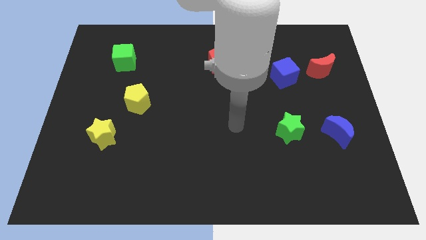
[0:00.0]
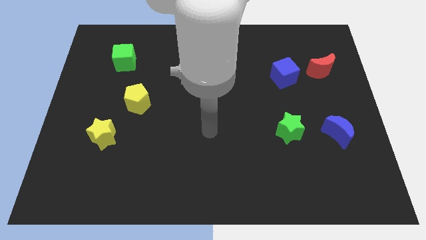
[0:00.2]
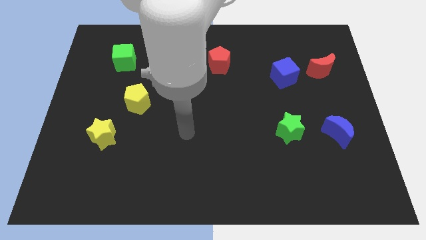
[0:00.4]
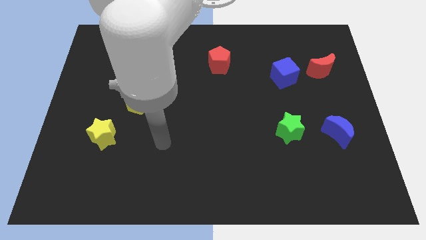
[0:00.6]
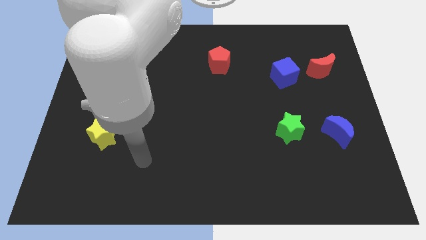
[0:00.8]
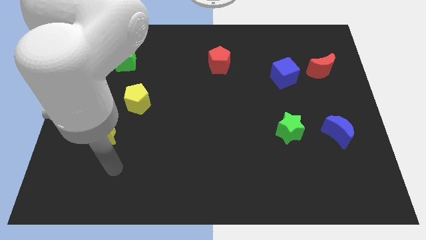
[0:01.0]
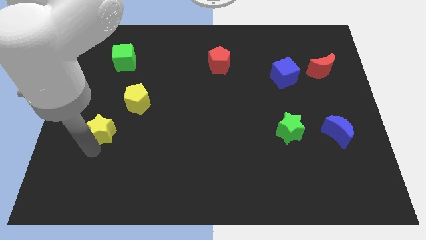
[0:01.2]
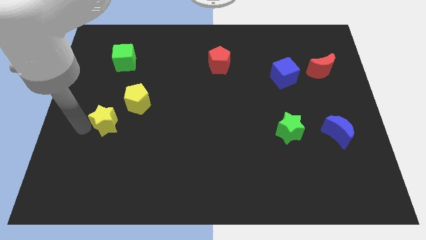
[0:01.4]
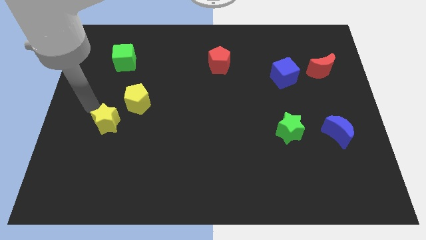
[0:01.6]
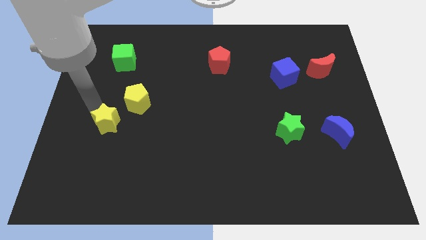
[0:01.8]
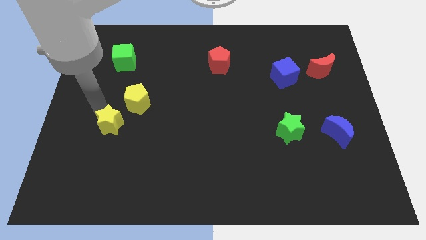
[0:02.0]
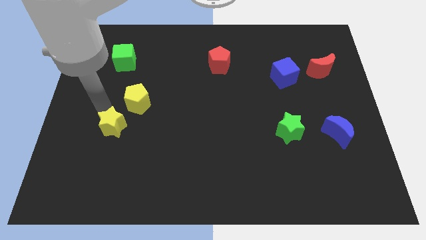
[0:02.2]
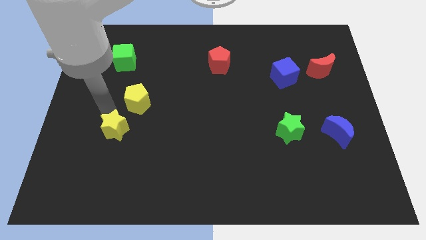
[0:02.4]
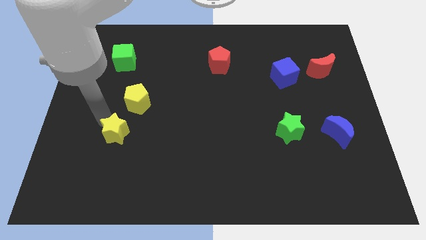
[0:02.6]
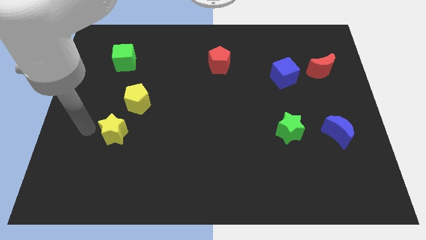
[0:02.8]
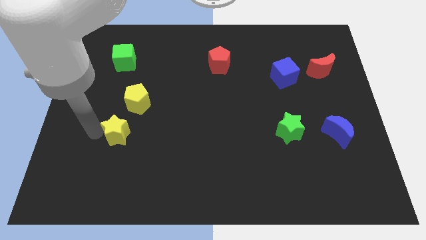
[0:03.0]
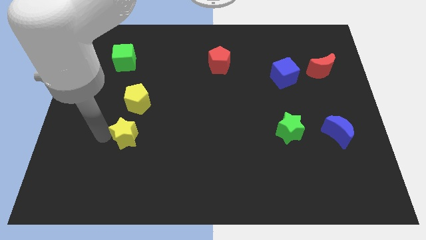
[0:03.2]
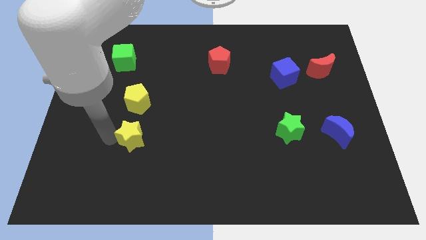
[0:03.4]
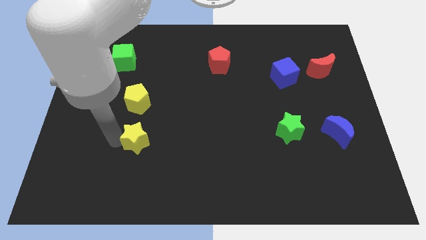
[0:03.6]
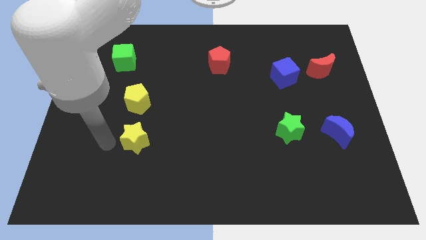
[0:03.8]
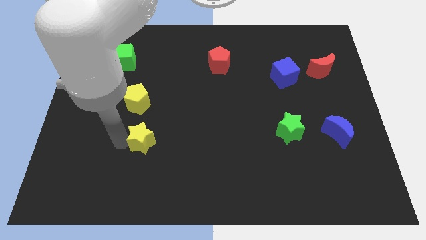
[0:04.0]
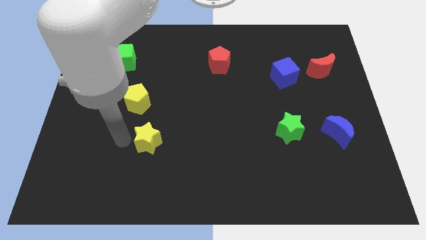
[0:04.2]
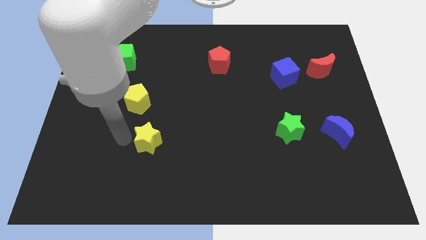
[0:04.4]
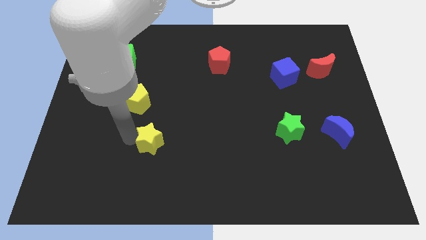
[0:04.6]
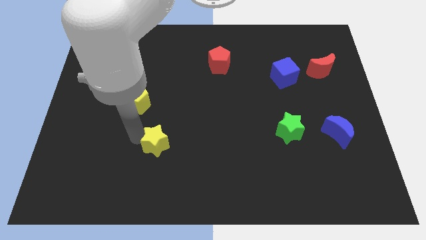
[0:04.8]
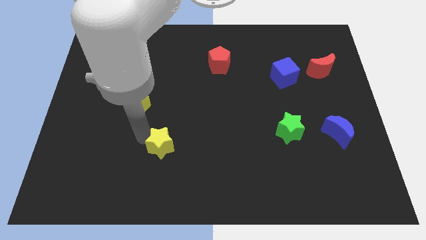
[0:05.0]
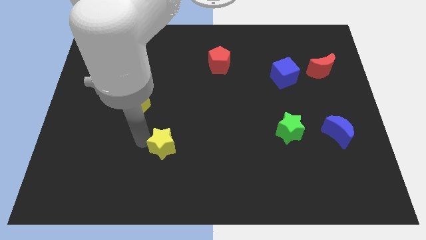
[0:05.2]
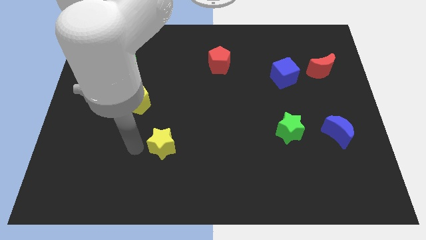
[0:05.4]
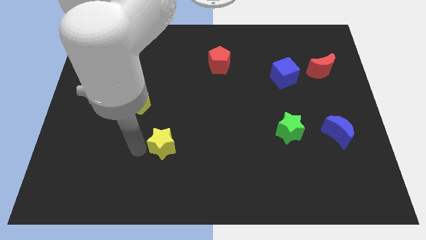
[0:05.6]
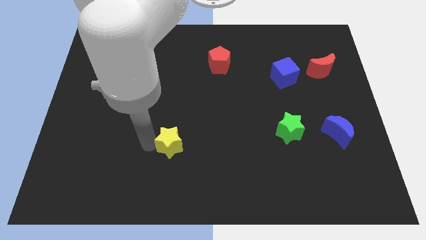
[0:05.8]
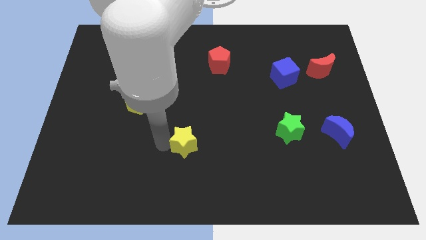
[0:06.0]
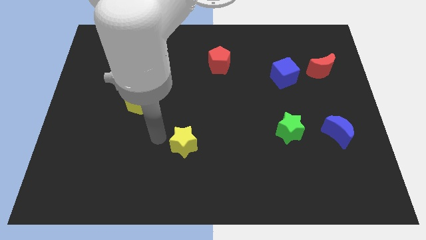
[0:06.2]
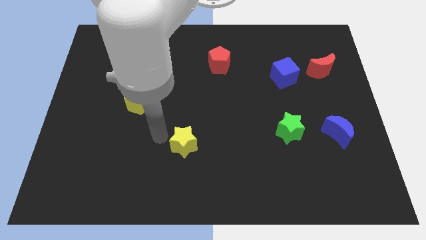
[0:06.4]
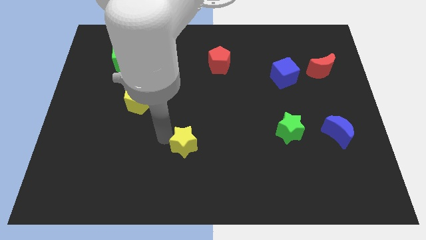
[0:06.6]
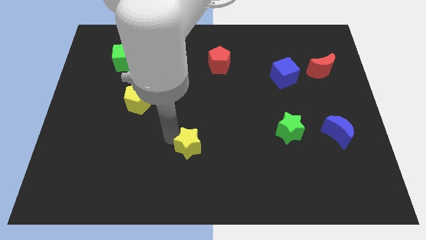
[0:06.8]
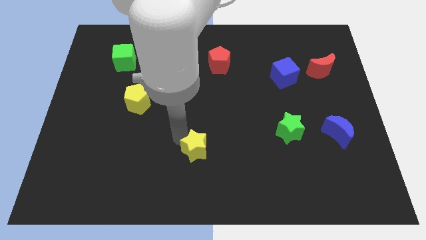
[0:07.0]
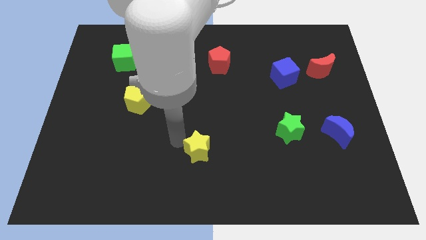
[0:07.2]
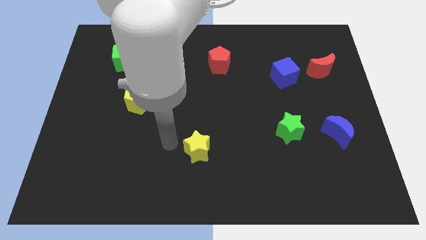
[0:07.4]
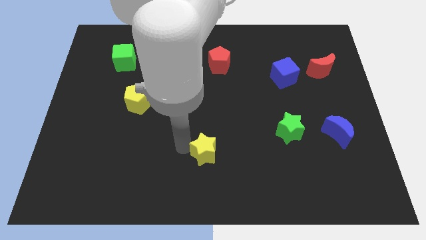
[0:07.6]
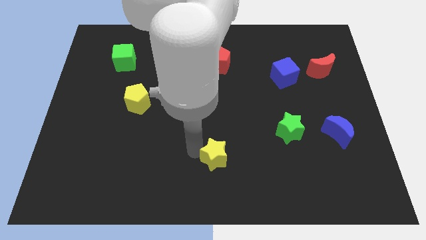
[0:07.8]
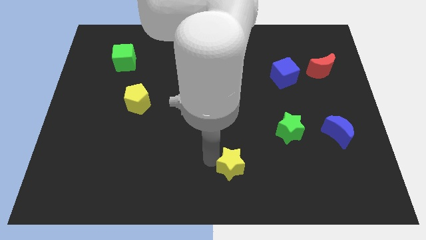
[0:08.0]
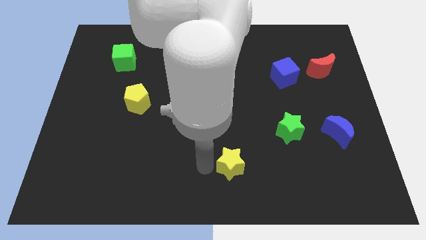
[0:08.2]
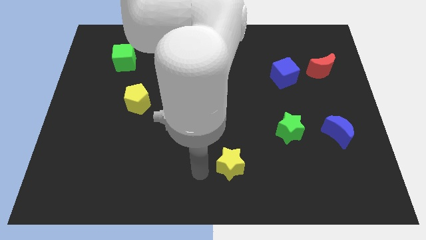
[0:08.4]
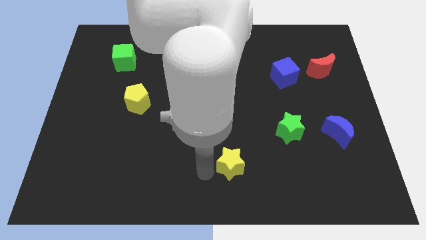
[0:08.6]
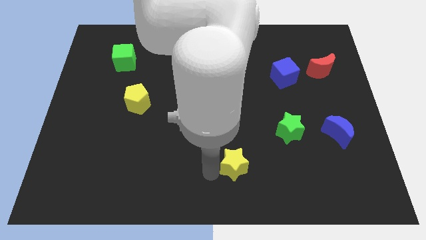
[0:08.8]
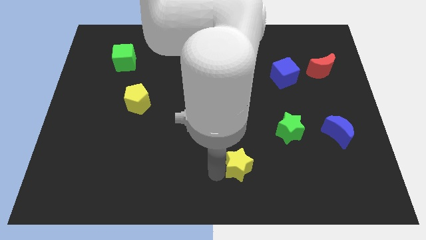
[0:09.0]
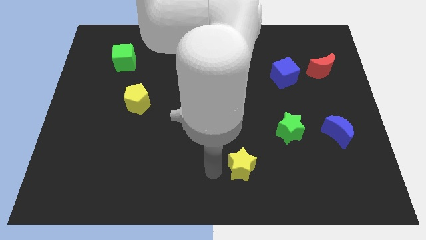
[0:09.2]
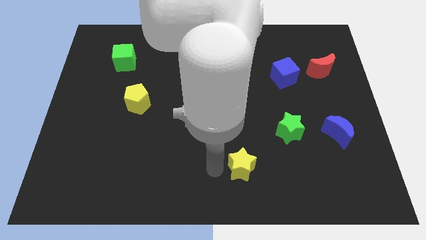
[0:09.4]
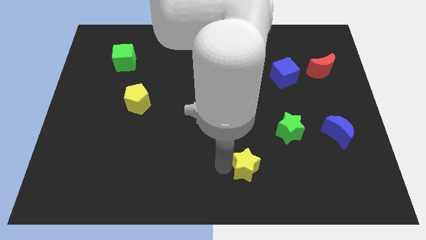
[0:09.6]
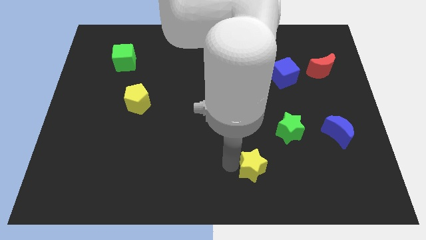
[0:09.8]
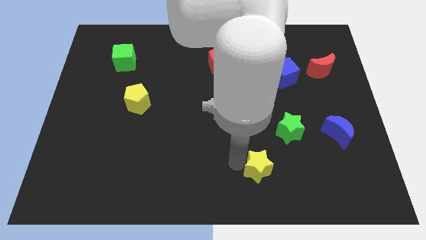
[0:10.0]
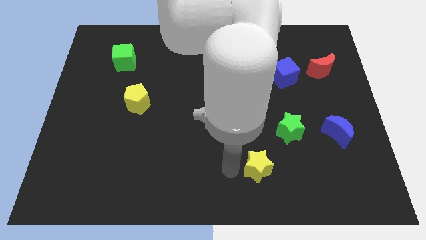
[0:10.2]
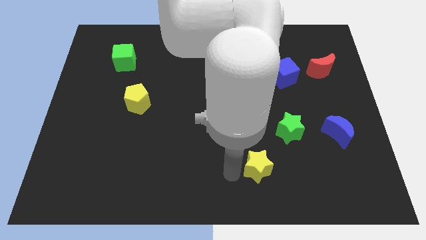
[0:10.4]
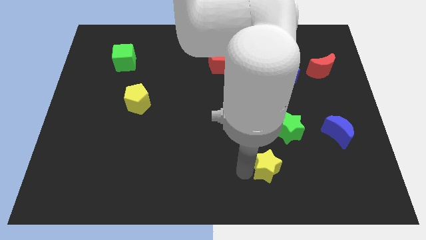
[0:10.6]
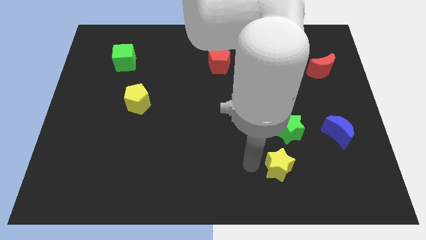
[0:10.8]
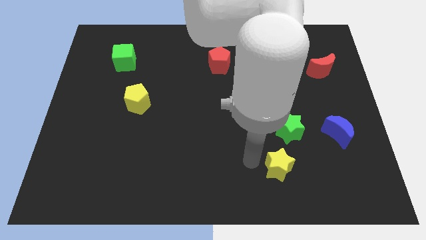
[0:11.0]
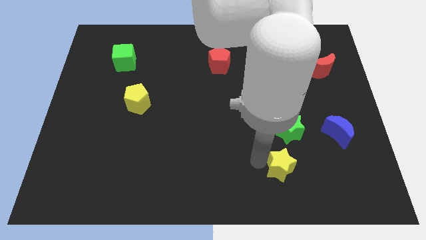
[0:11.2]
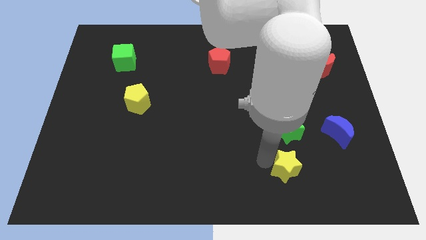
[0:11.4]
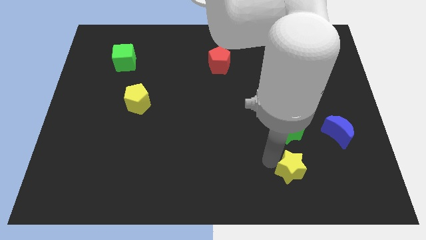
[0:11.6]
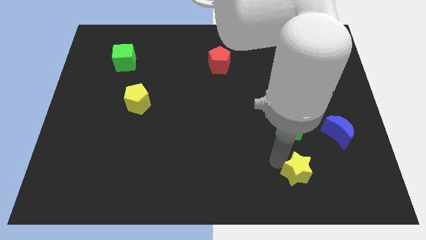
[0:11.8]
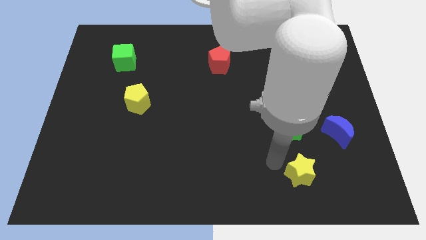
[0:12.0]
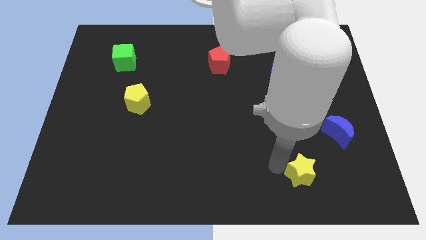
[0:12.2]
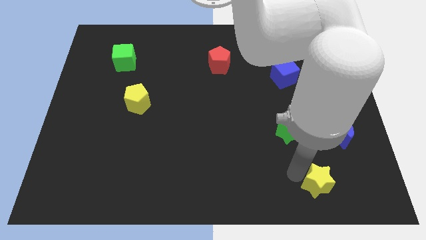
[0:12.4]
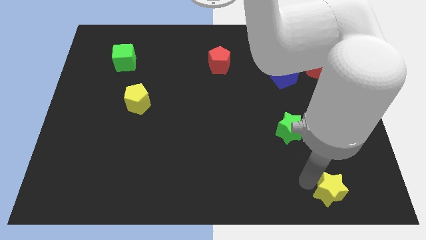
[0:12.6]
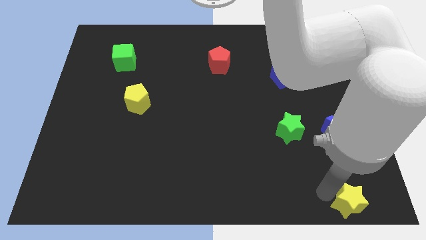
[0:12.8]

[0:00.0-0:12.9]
move the yellow star to the bottom right
